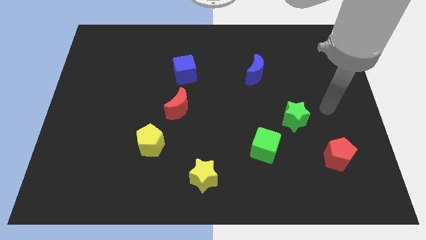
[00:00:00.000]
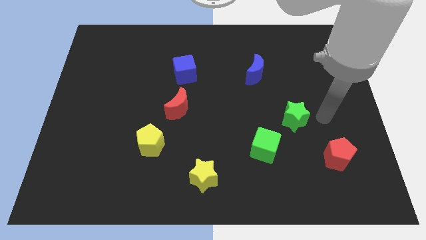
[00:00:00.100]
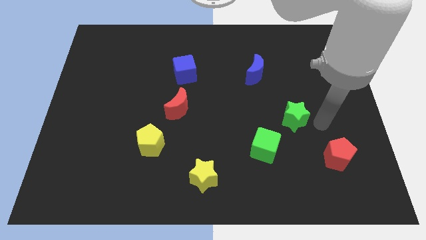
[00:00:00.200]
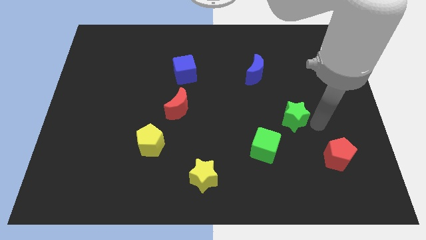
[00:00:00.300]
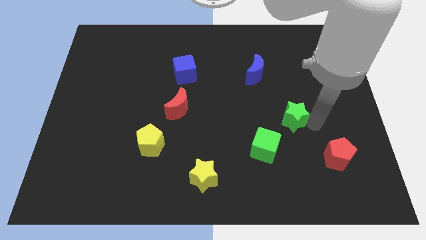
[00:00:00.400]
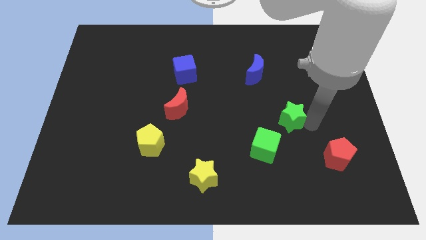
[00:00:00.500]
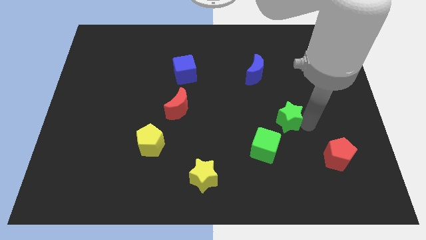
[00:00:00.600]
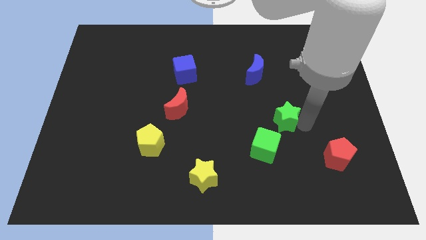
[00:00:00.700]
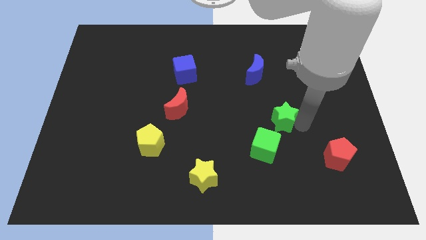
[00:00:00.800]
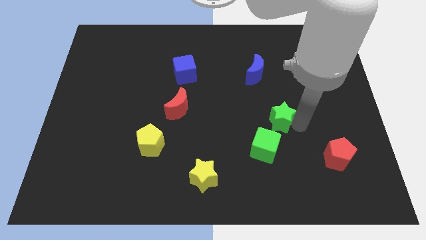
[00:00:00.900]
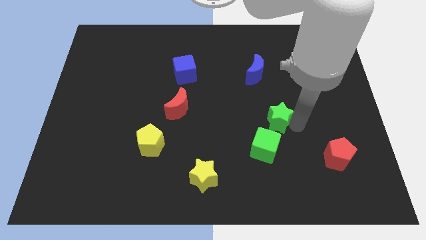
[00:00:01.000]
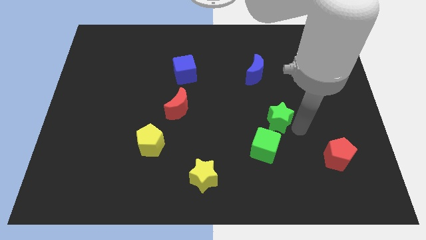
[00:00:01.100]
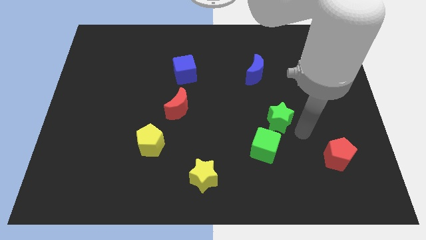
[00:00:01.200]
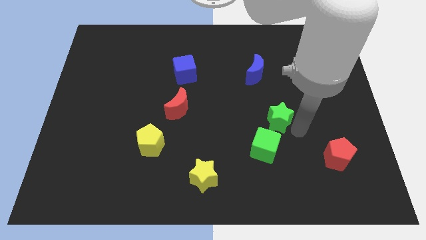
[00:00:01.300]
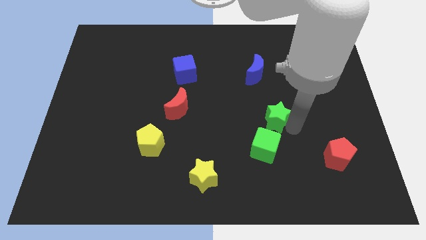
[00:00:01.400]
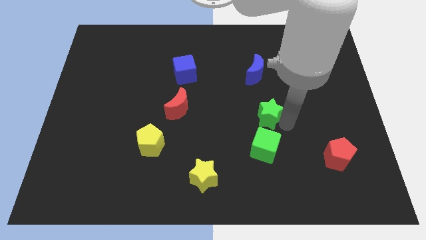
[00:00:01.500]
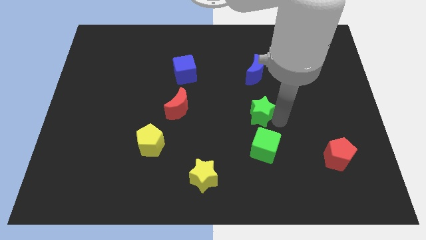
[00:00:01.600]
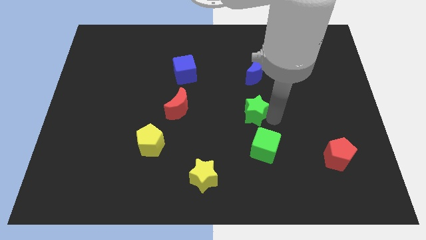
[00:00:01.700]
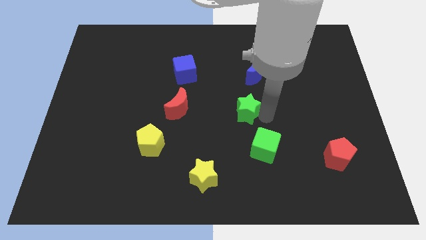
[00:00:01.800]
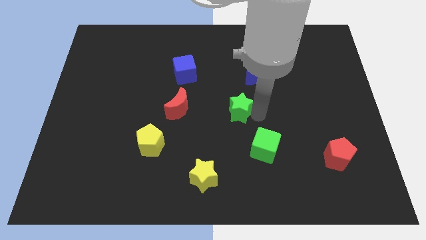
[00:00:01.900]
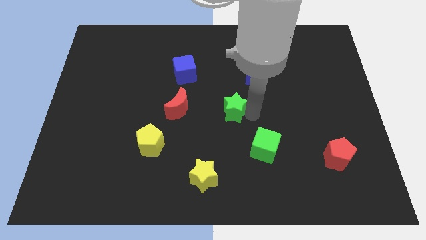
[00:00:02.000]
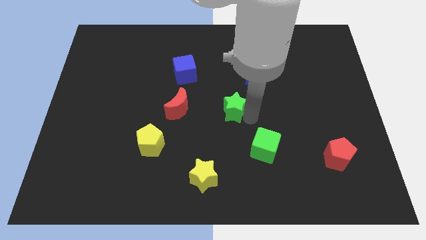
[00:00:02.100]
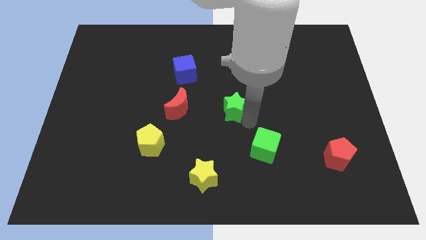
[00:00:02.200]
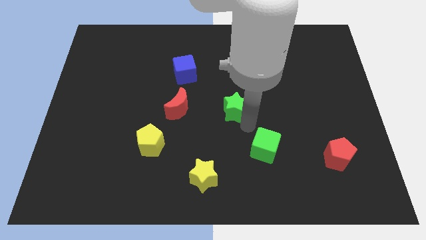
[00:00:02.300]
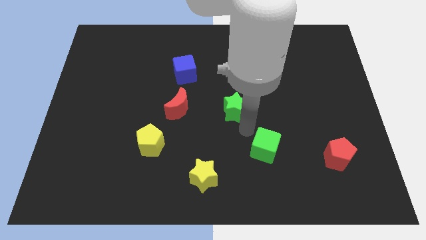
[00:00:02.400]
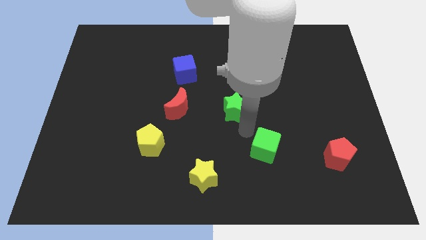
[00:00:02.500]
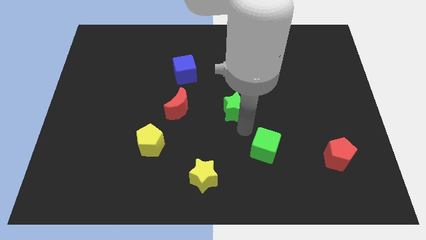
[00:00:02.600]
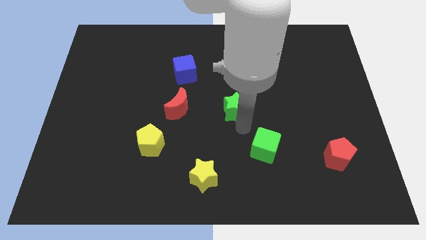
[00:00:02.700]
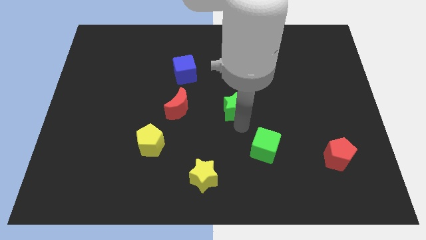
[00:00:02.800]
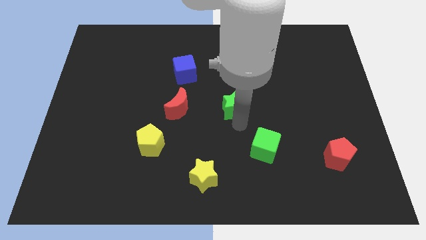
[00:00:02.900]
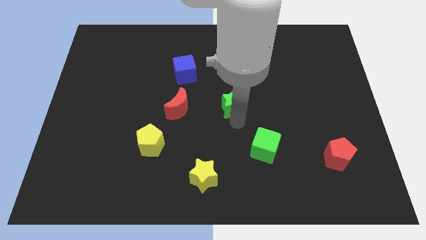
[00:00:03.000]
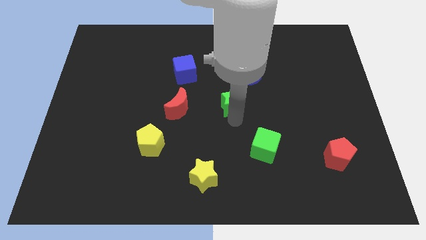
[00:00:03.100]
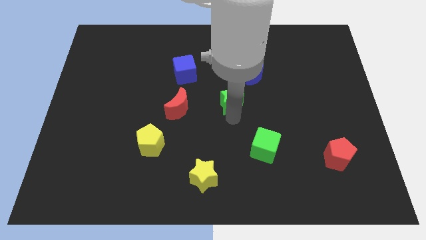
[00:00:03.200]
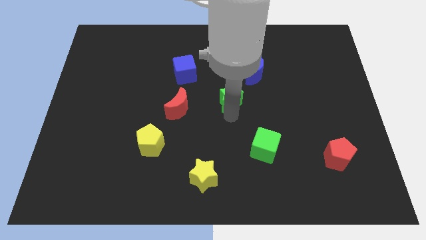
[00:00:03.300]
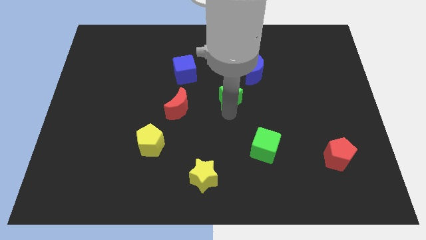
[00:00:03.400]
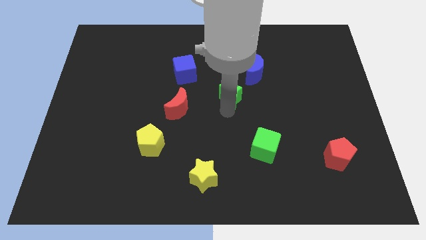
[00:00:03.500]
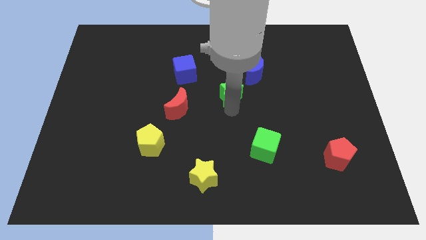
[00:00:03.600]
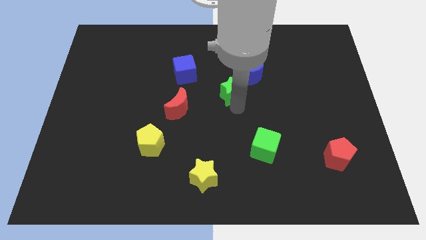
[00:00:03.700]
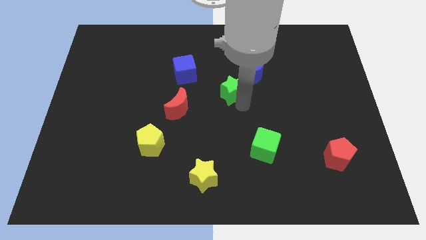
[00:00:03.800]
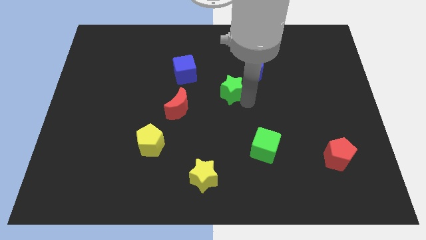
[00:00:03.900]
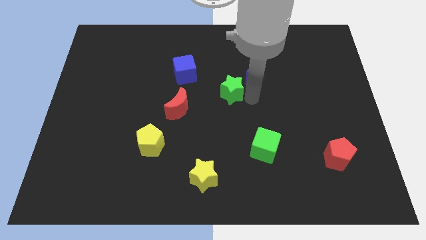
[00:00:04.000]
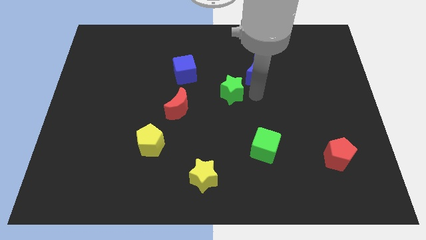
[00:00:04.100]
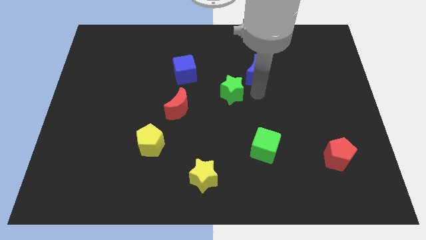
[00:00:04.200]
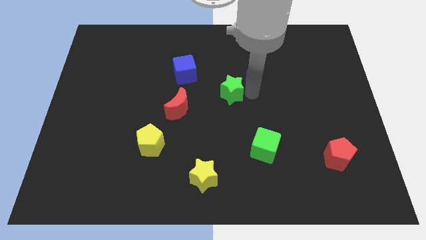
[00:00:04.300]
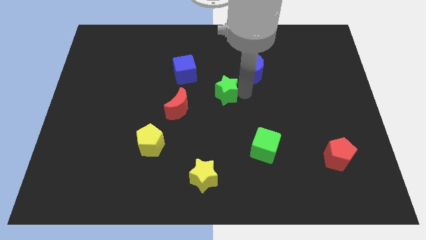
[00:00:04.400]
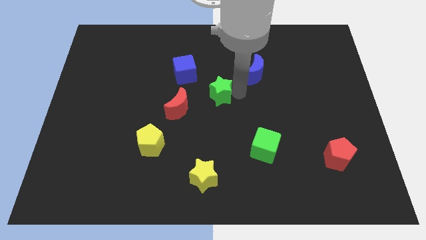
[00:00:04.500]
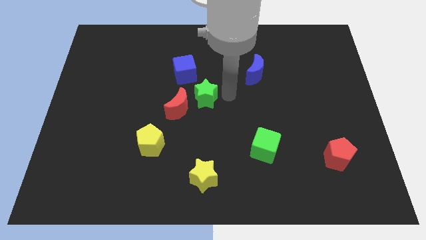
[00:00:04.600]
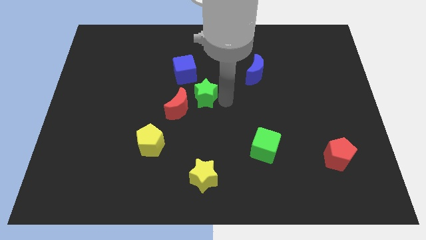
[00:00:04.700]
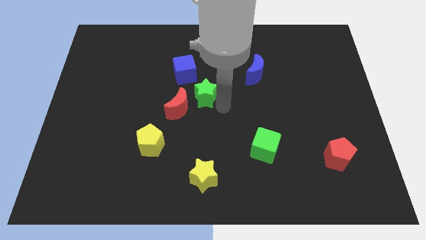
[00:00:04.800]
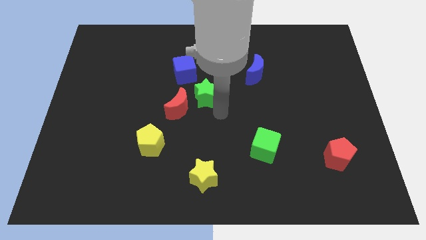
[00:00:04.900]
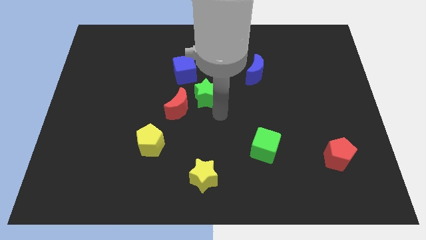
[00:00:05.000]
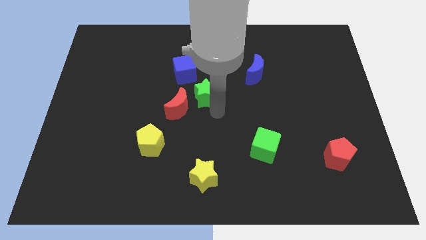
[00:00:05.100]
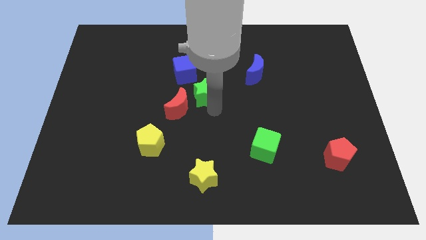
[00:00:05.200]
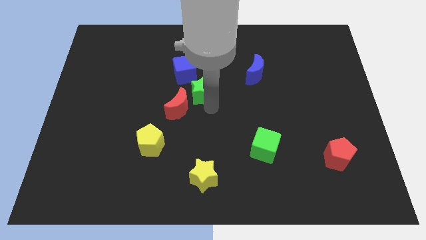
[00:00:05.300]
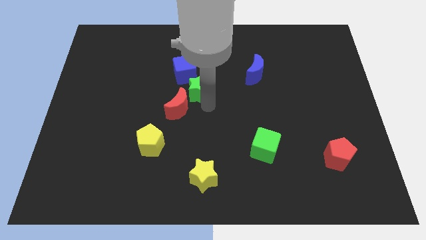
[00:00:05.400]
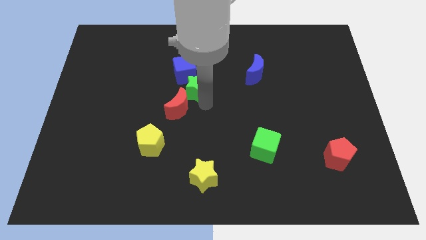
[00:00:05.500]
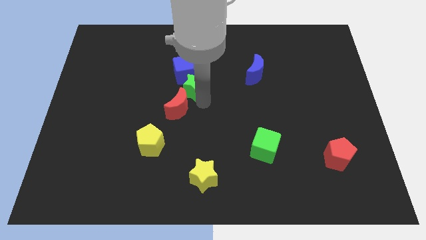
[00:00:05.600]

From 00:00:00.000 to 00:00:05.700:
put the green star next to the blue cube
